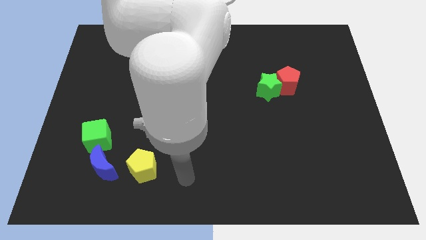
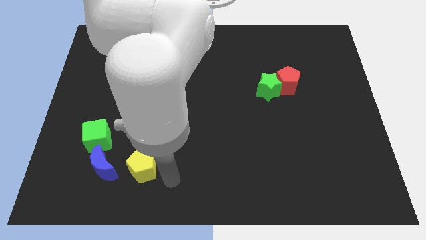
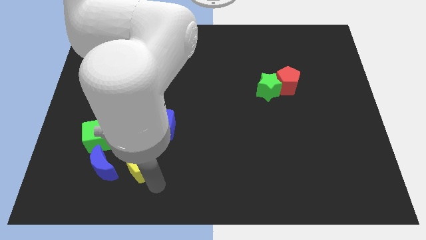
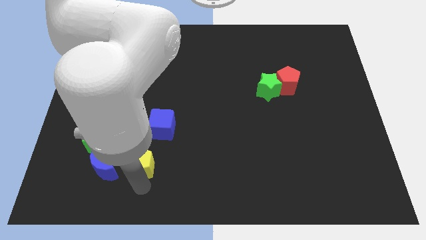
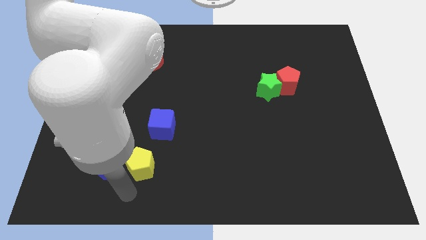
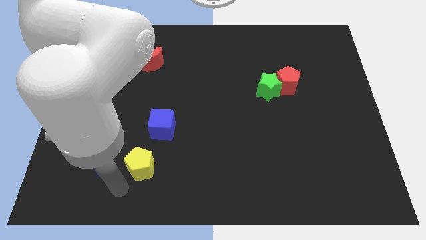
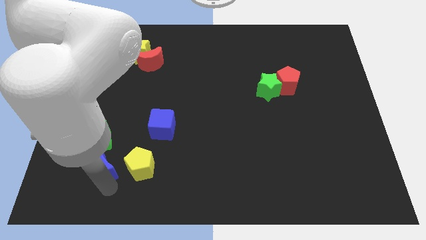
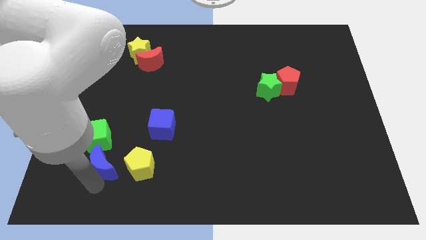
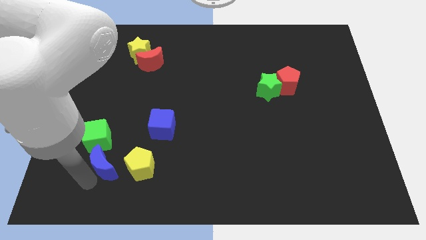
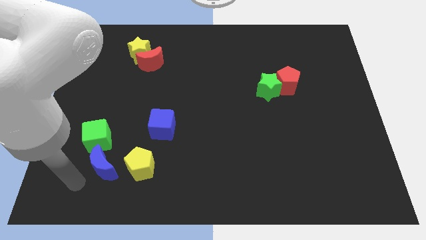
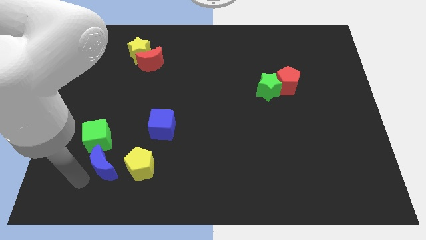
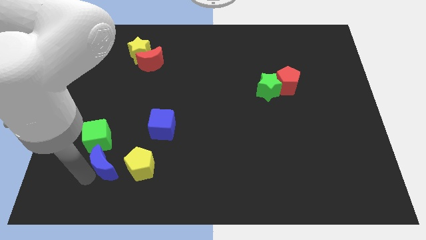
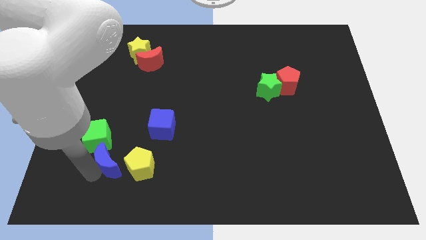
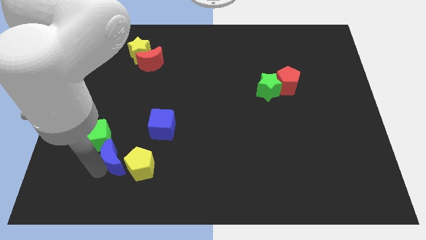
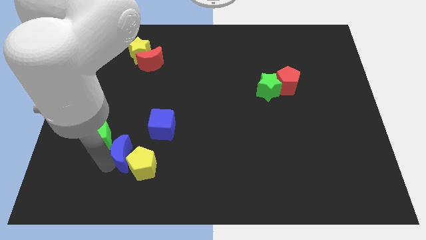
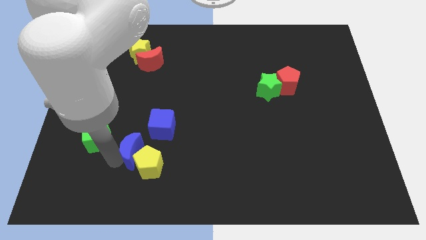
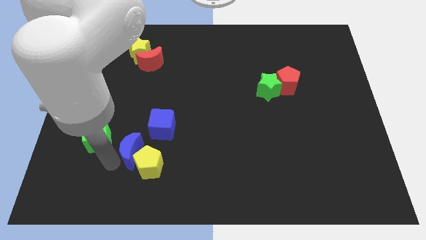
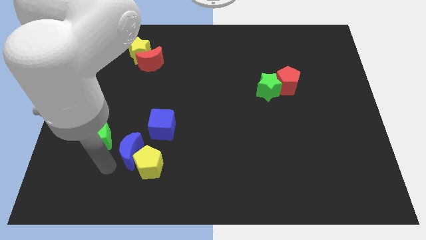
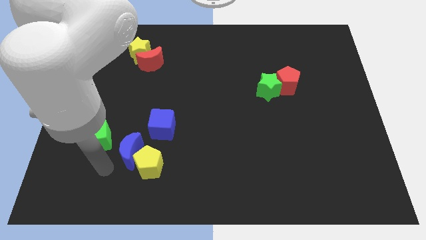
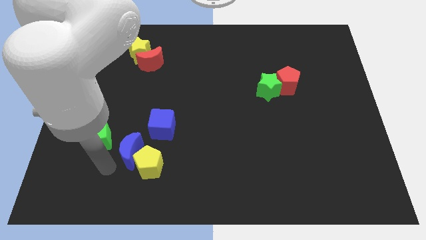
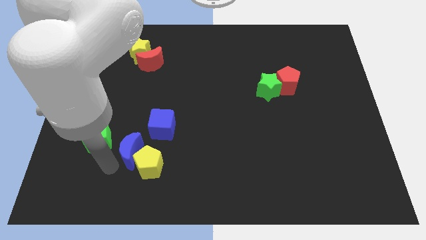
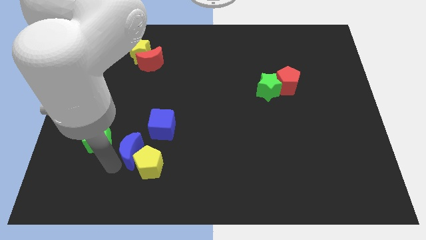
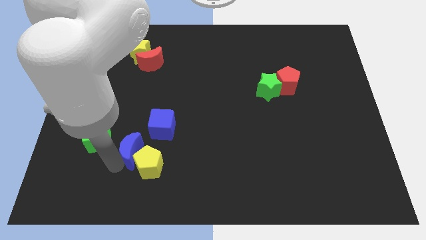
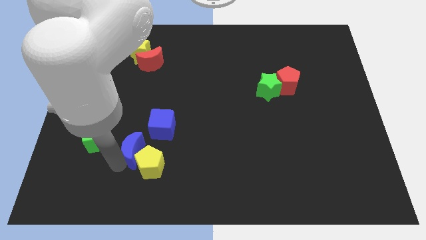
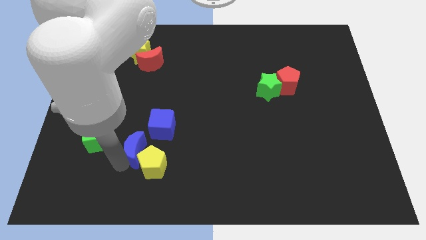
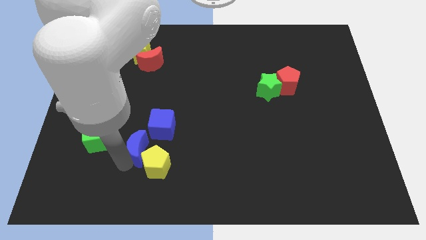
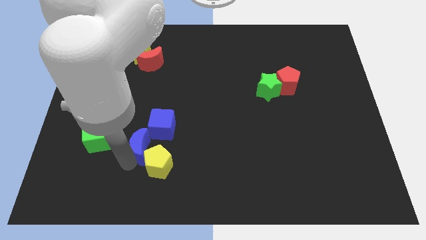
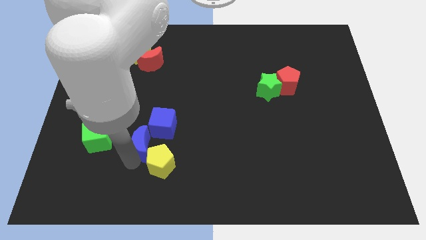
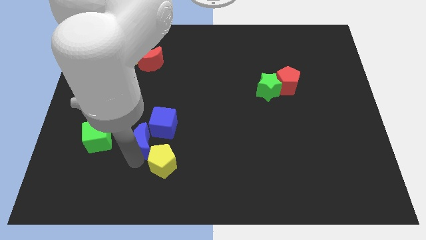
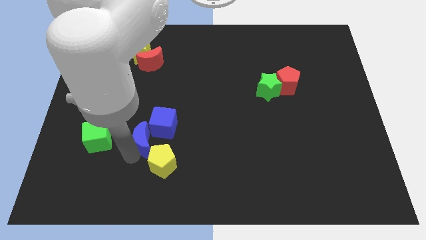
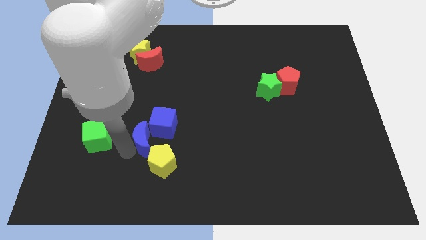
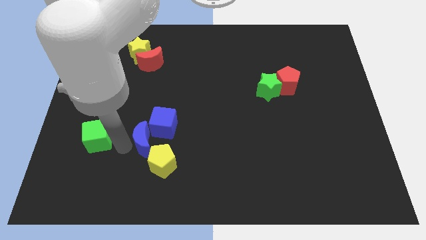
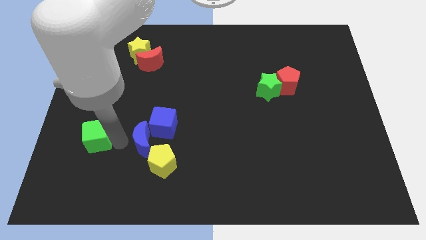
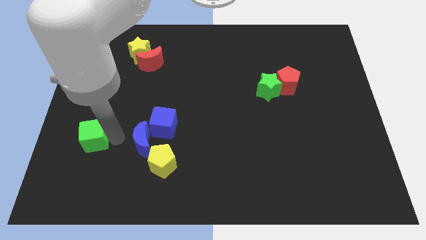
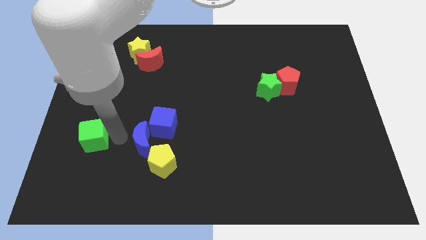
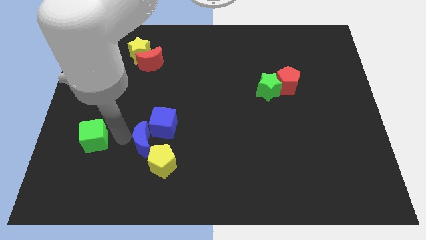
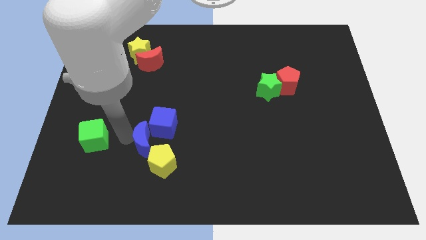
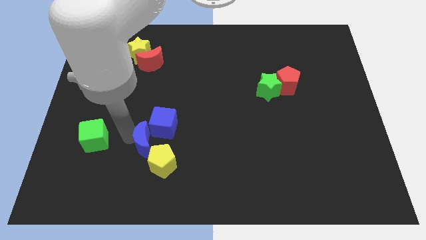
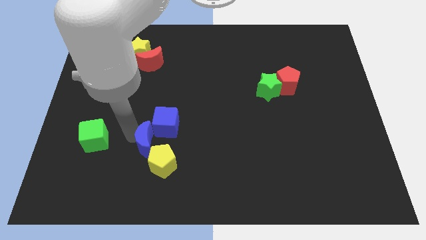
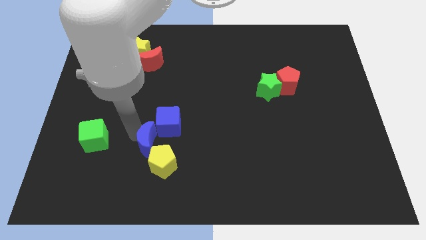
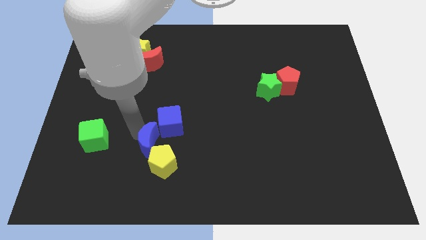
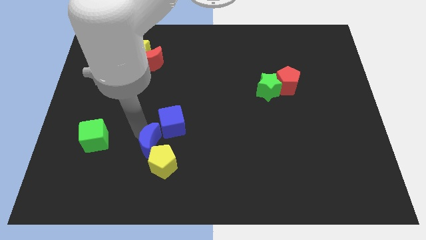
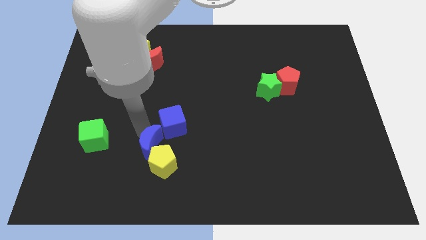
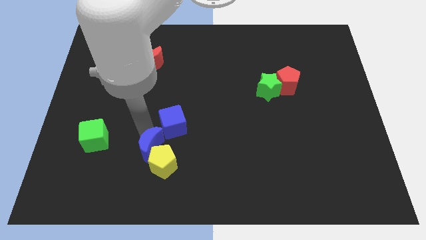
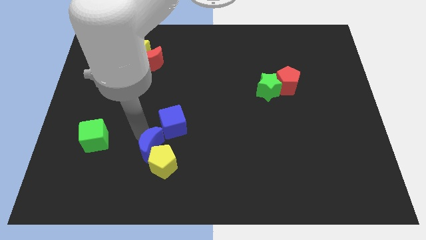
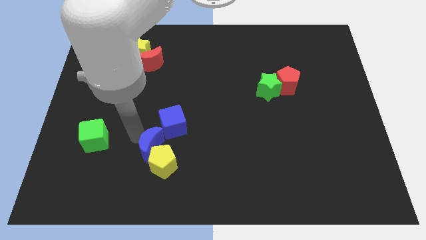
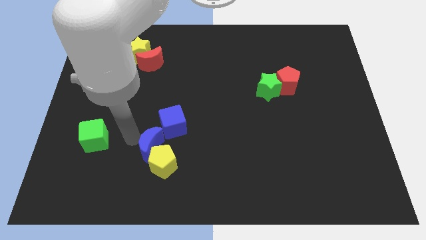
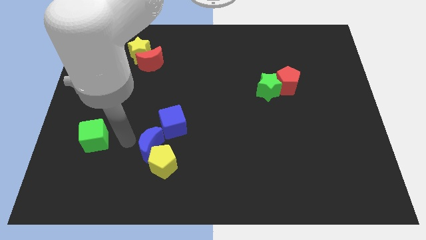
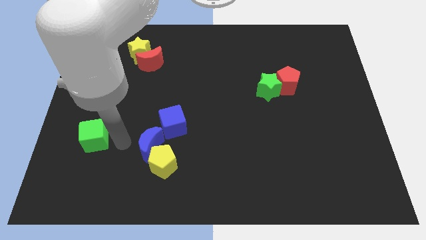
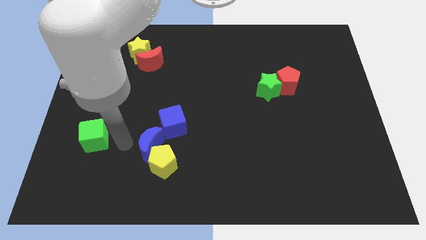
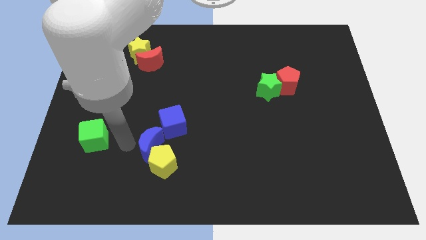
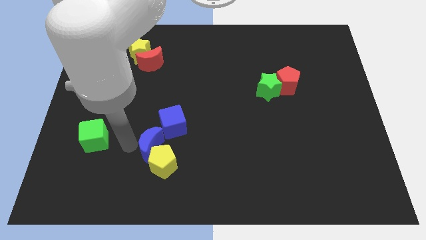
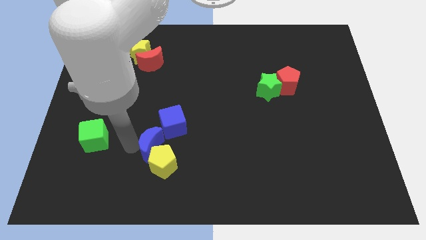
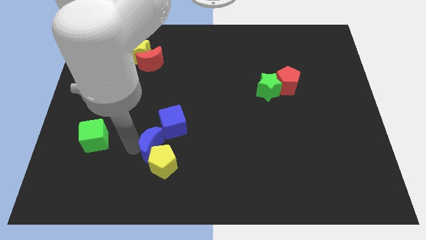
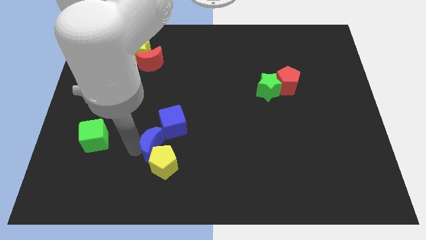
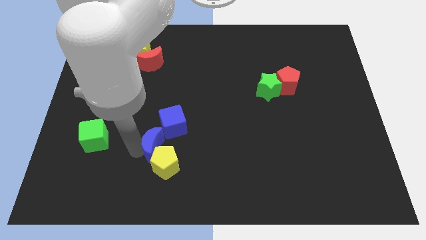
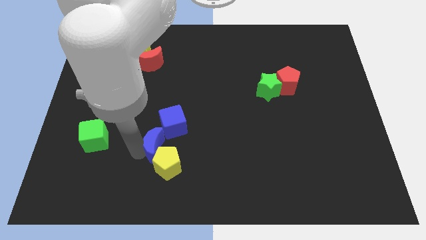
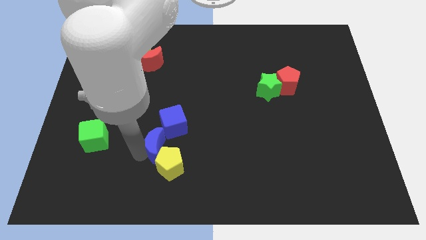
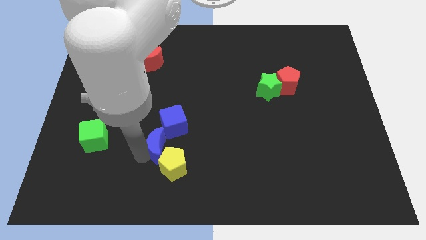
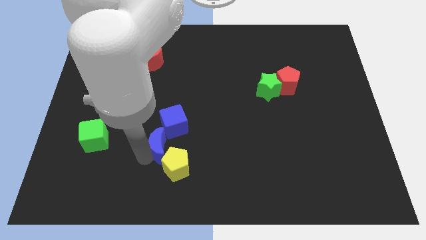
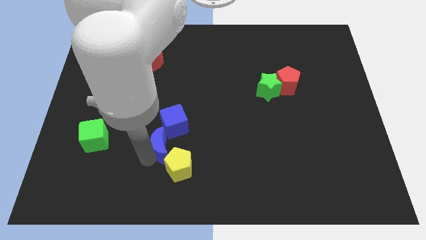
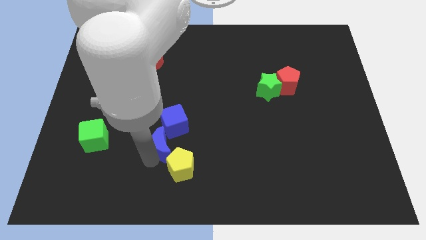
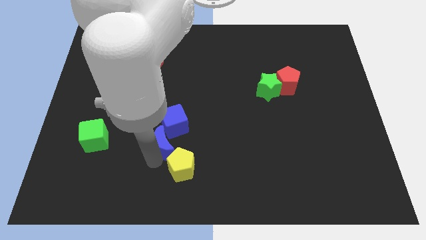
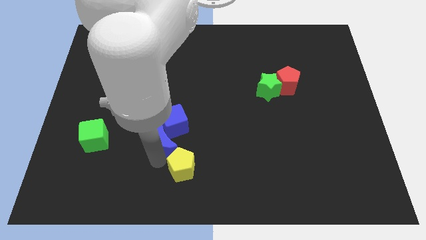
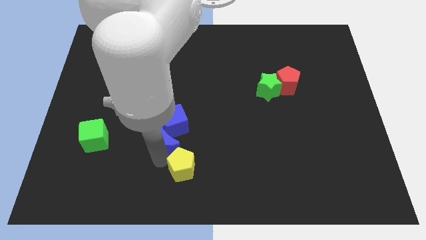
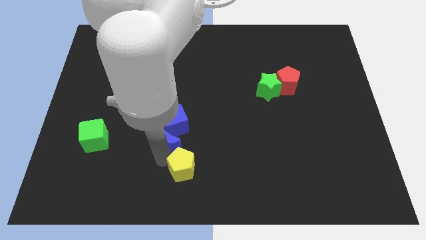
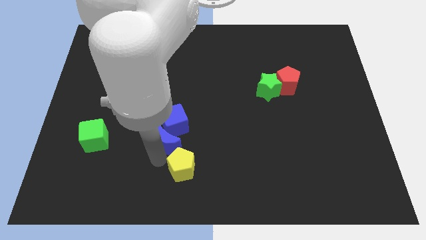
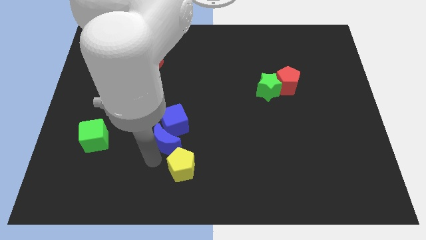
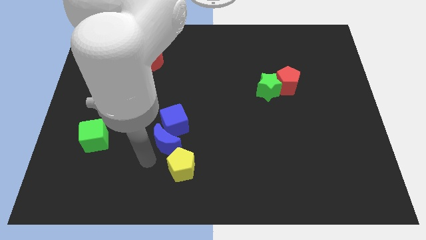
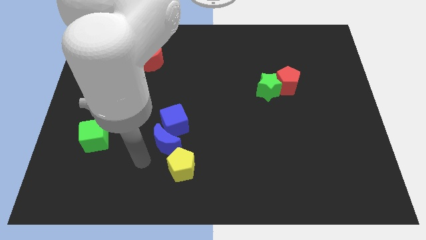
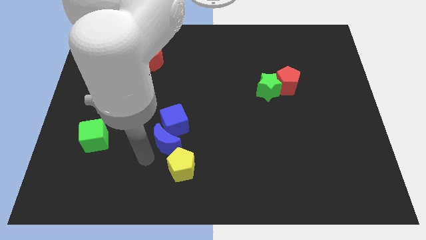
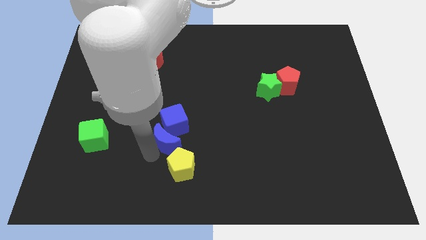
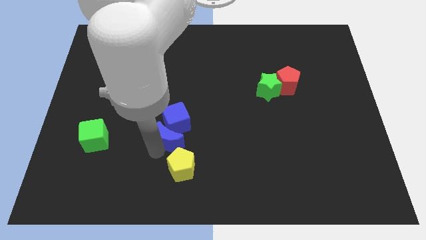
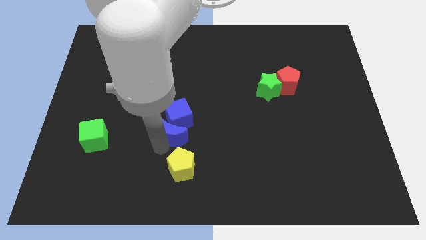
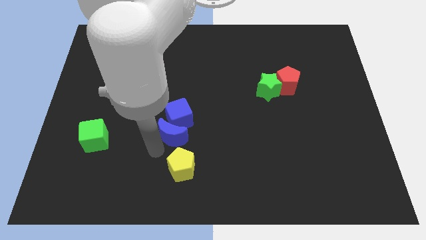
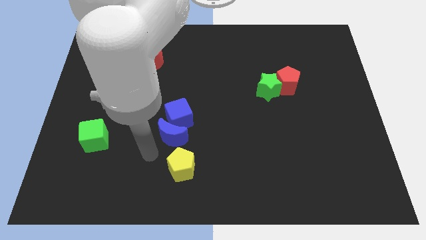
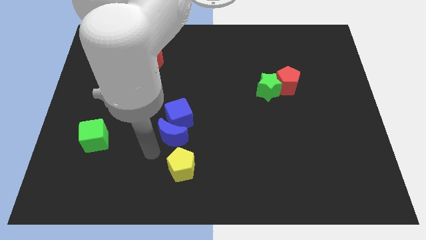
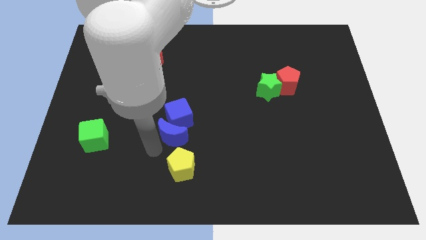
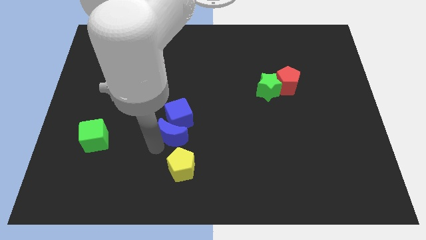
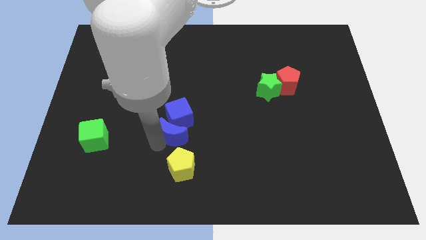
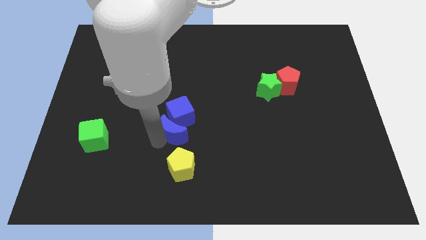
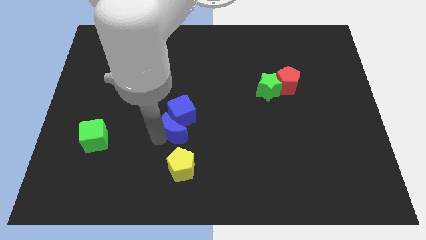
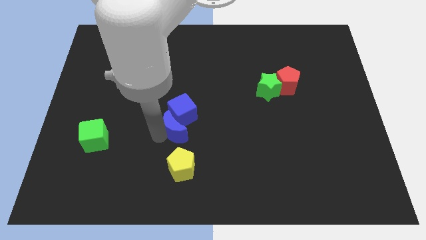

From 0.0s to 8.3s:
push the blue moon to the middle
